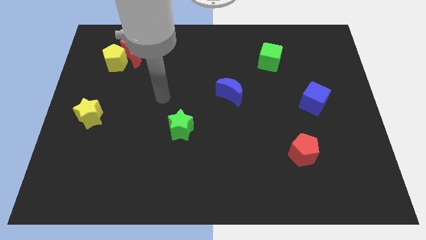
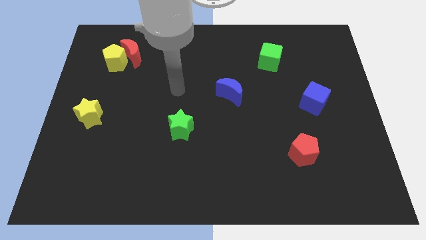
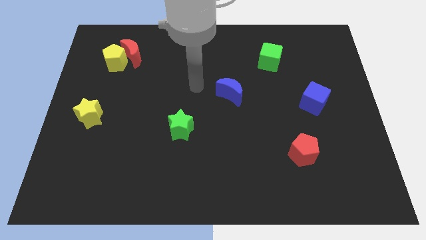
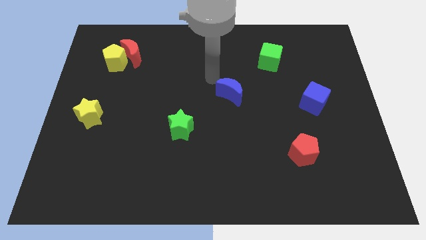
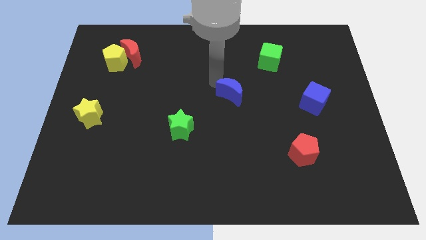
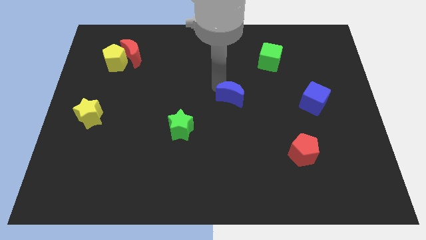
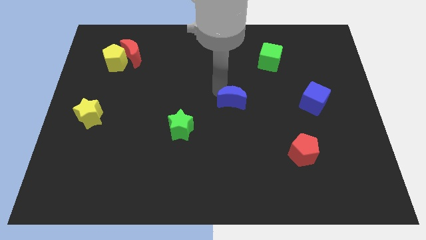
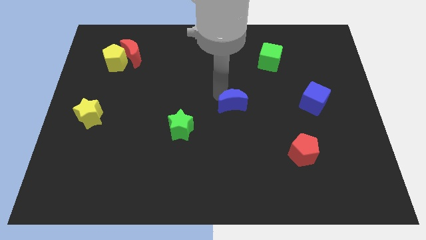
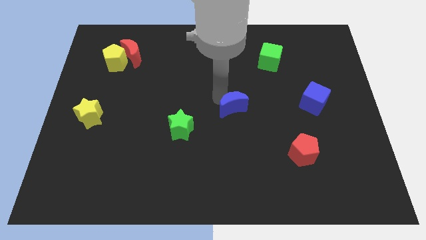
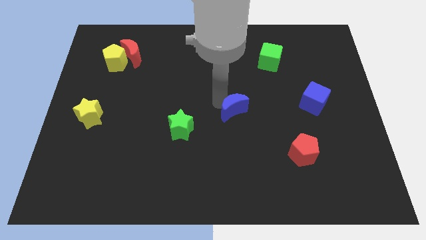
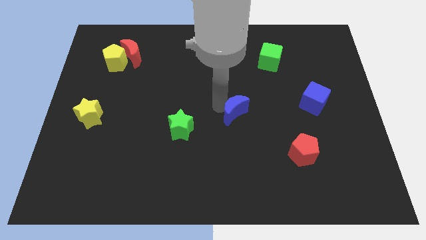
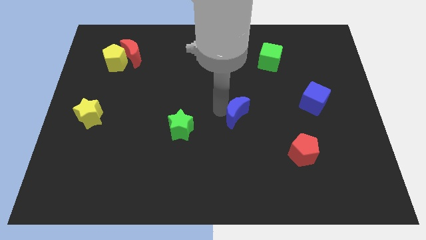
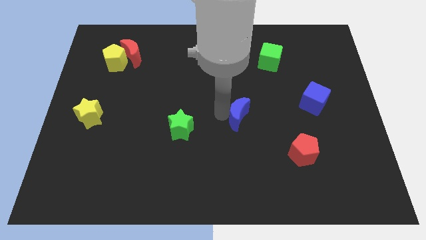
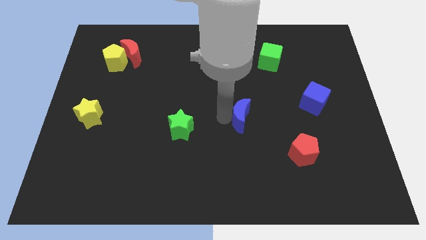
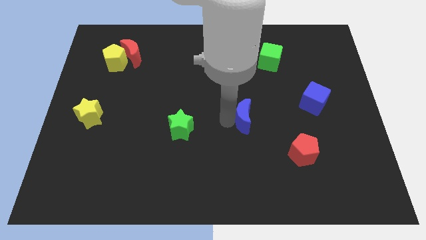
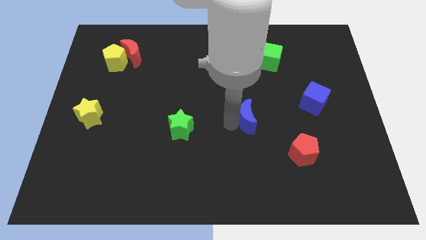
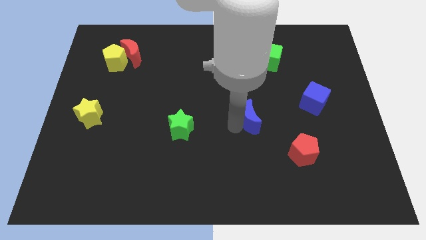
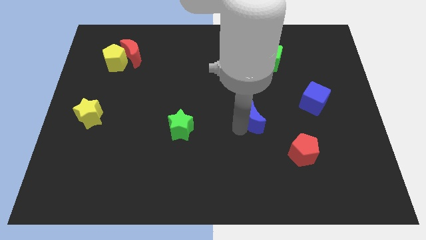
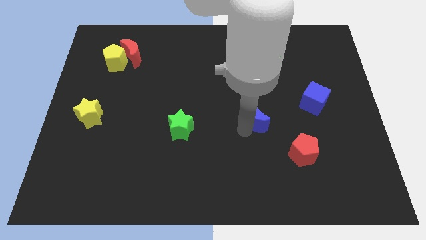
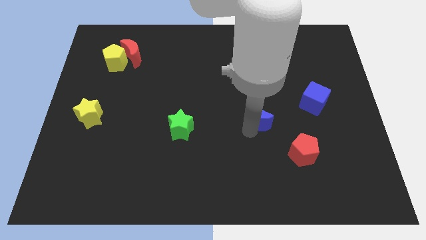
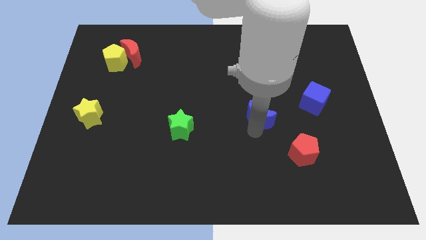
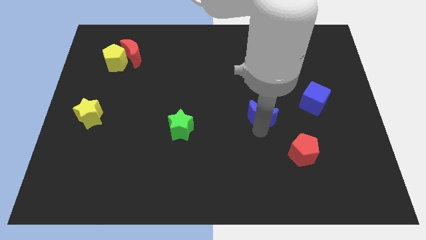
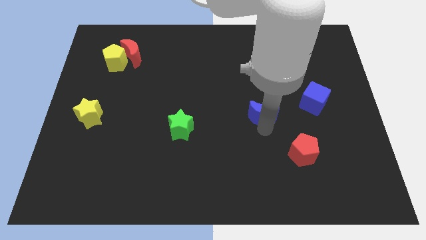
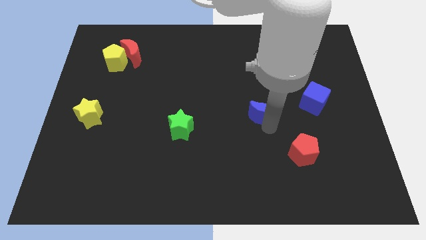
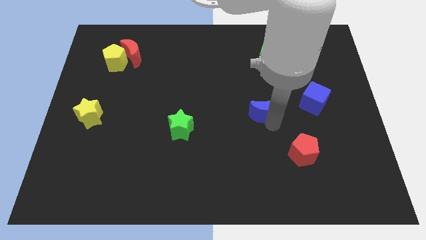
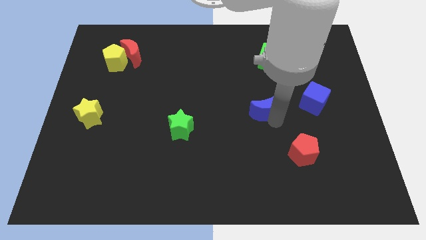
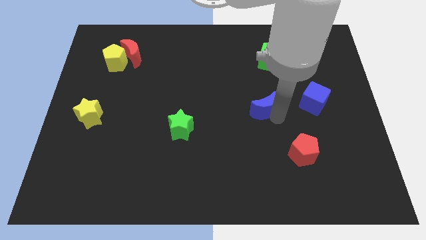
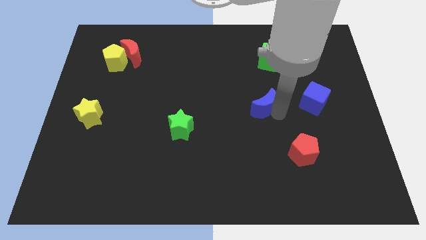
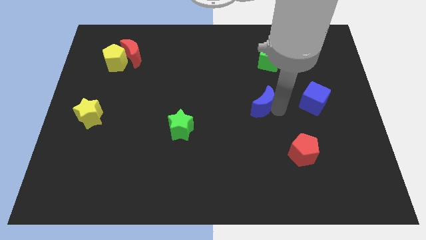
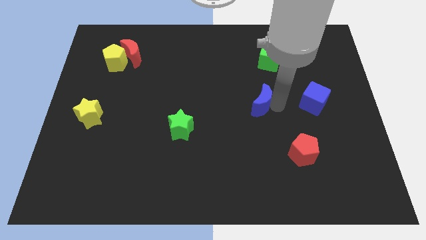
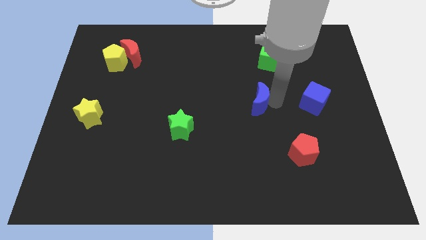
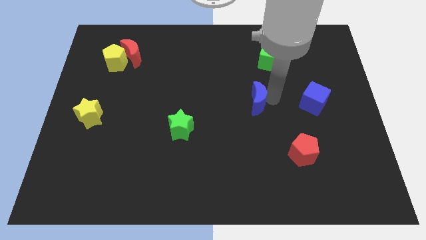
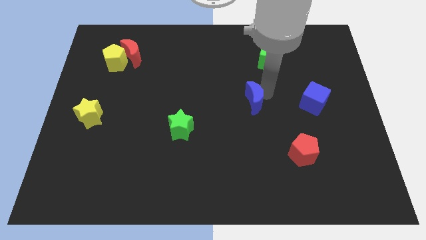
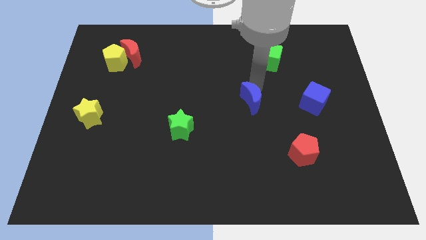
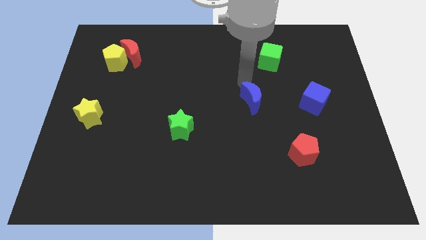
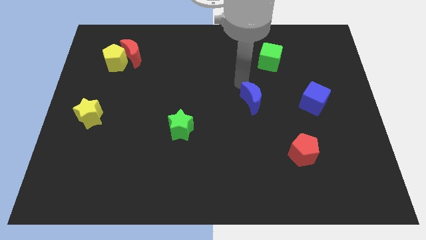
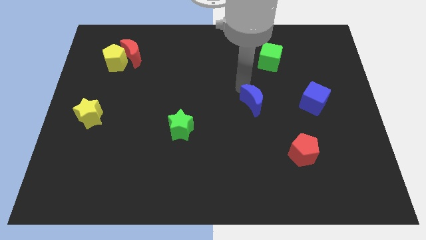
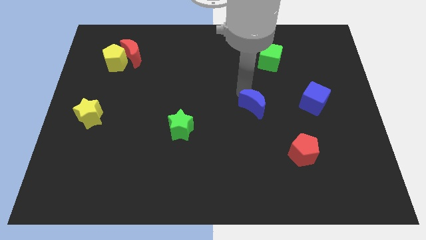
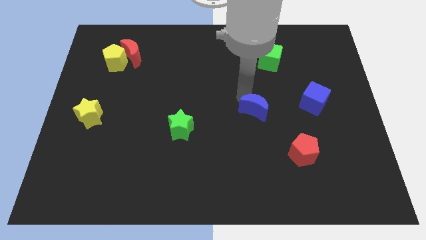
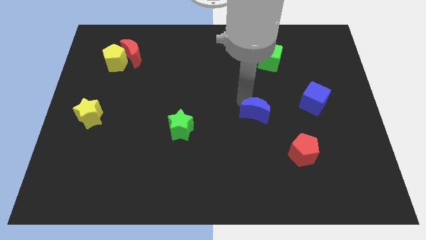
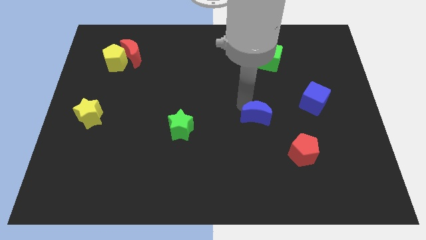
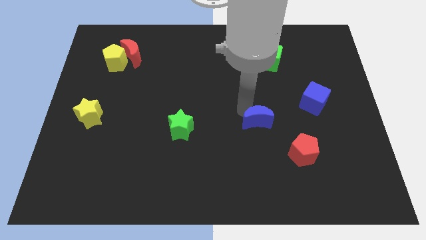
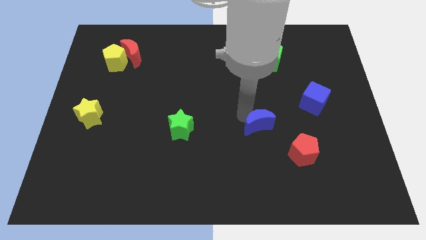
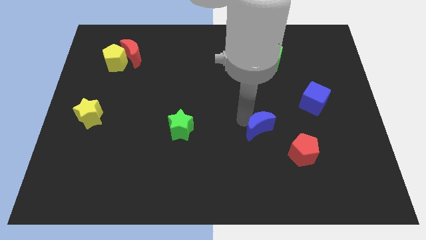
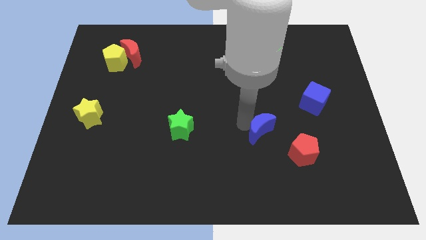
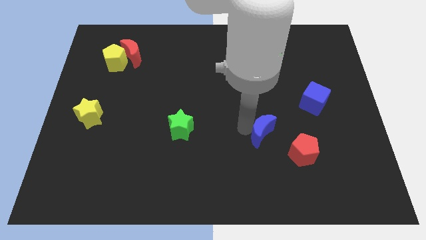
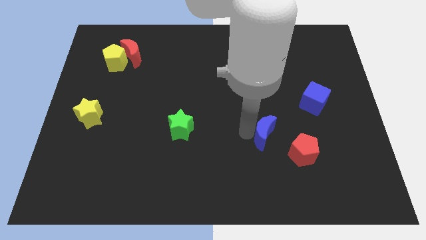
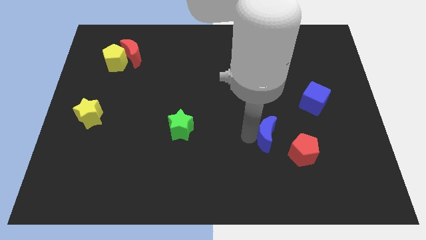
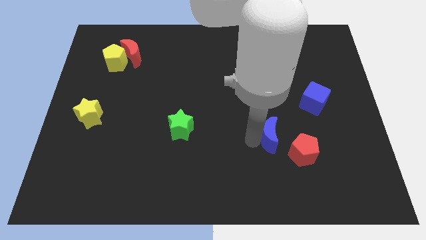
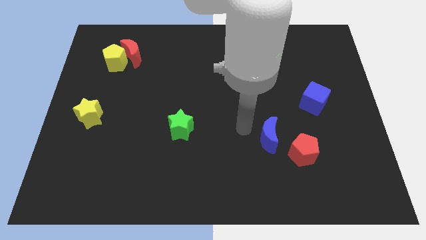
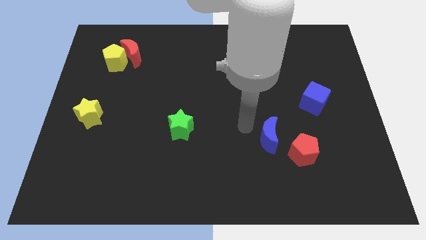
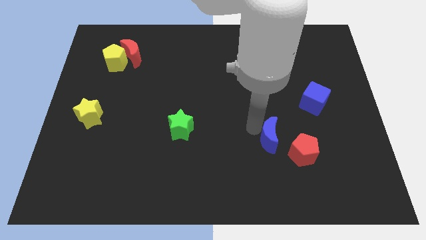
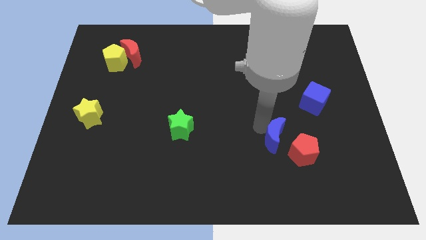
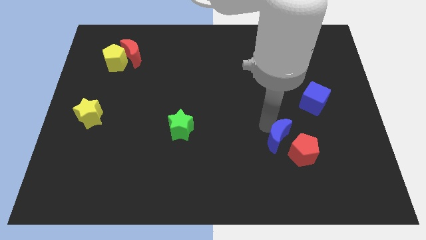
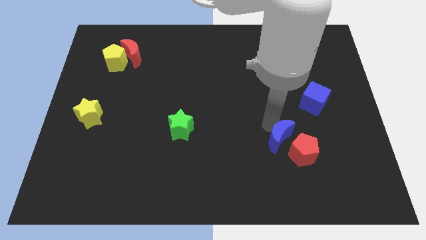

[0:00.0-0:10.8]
move the blue moon close to the red pentagon

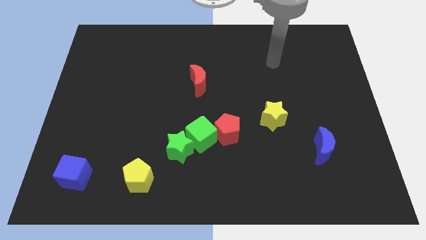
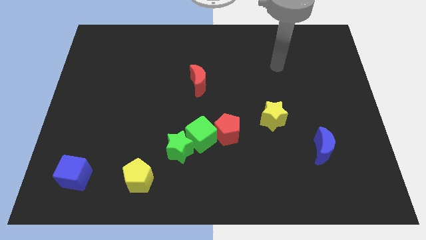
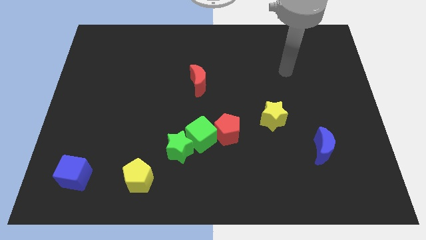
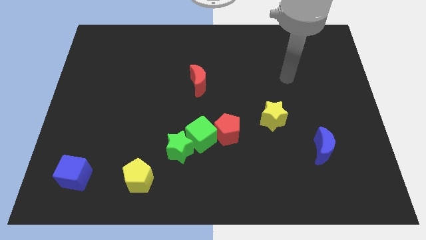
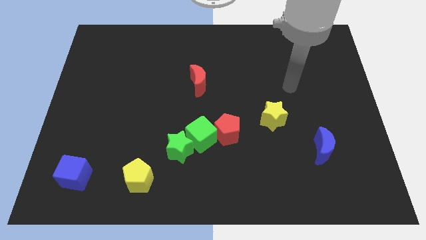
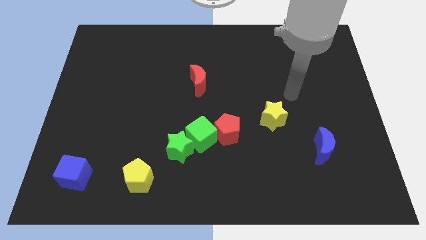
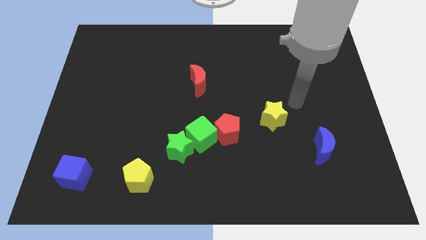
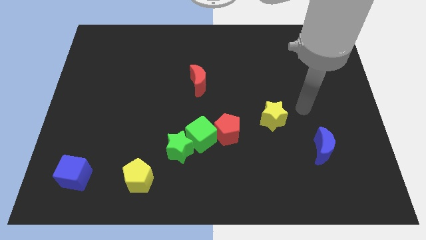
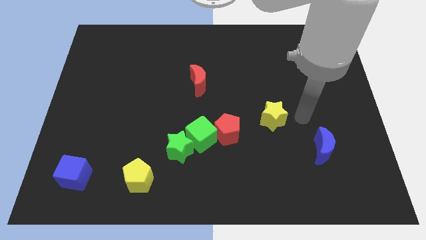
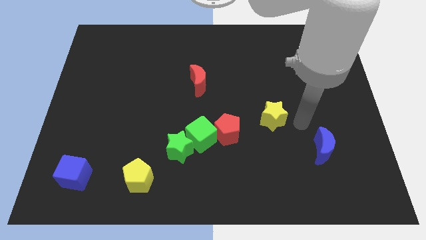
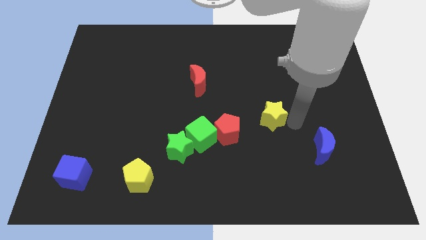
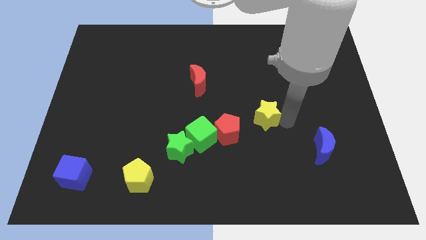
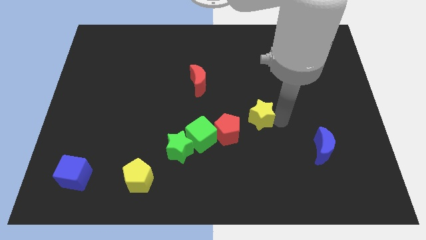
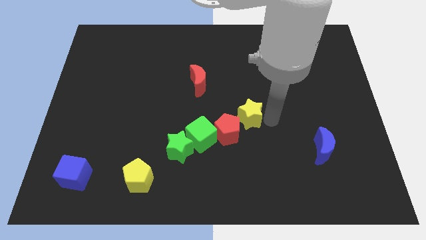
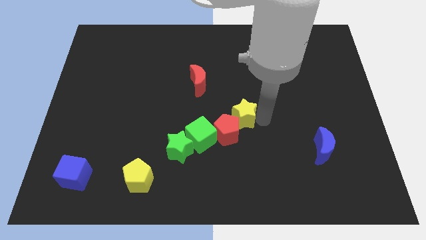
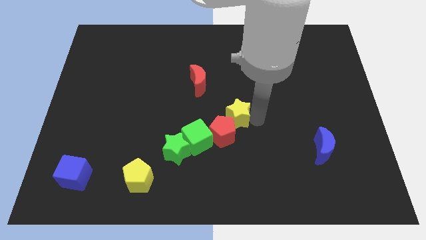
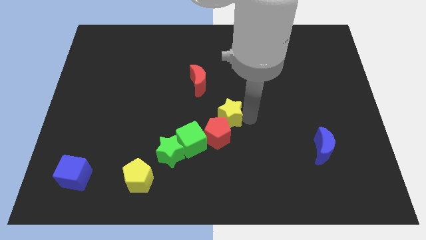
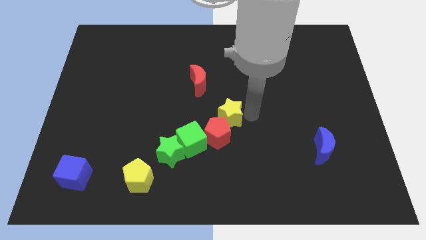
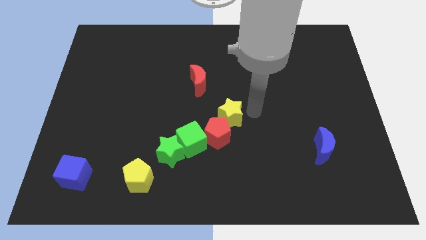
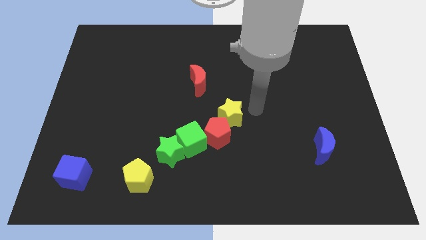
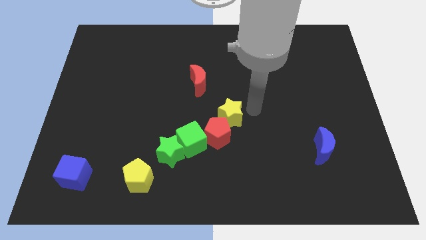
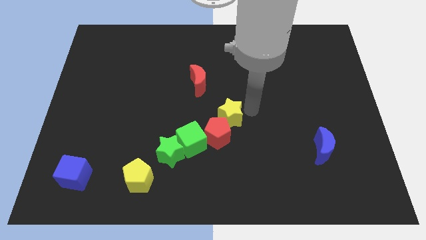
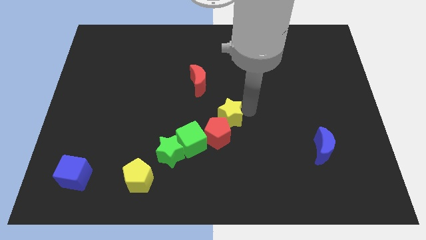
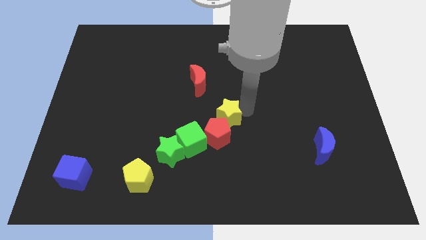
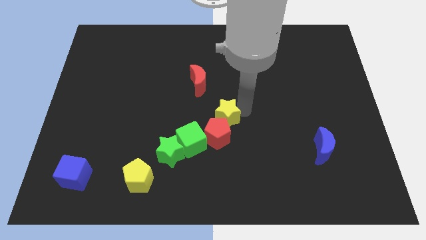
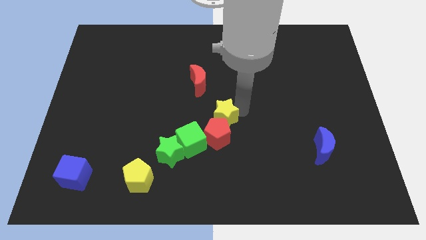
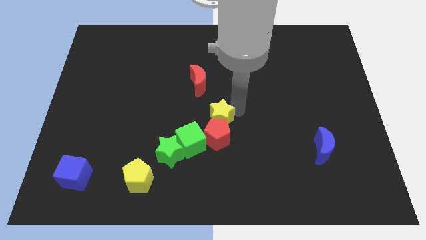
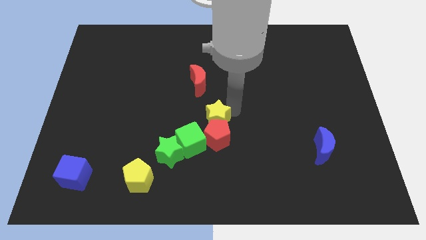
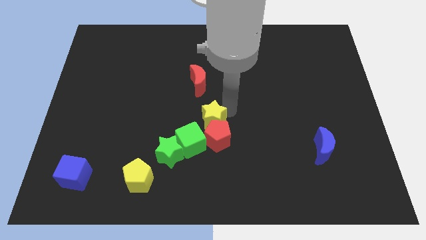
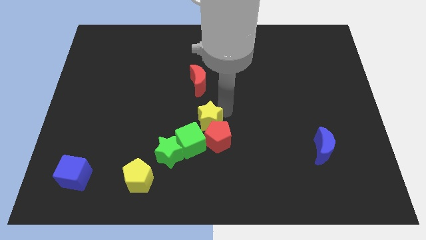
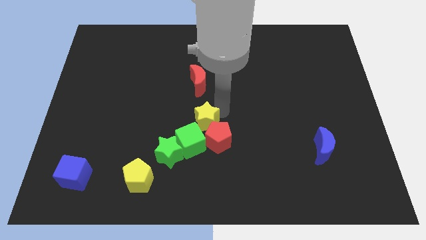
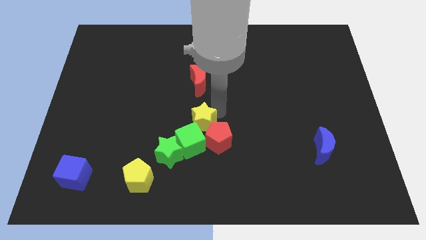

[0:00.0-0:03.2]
push the yellow star close to the green cube
